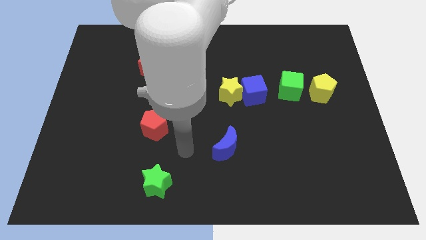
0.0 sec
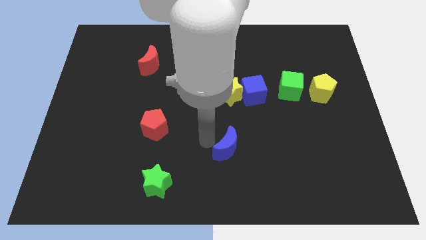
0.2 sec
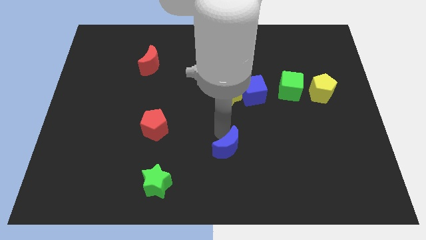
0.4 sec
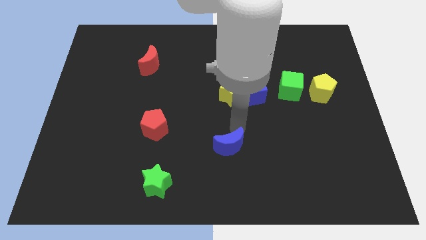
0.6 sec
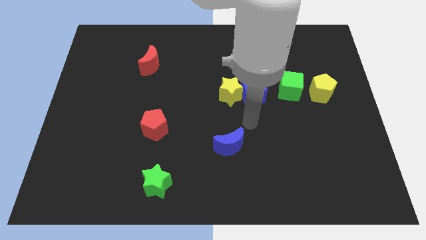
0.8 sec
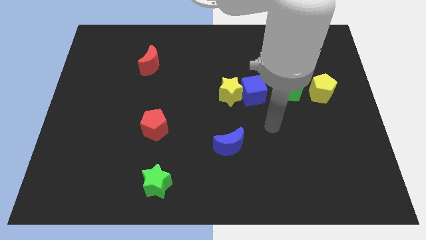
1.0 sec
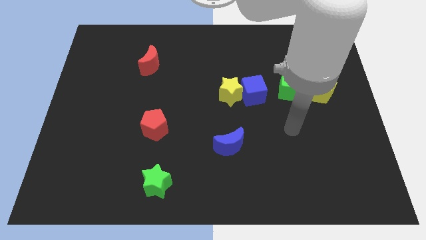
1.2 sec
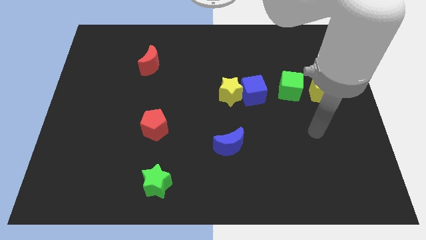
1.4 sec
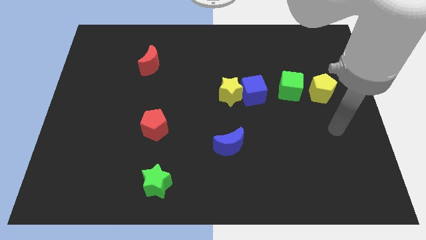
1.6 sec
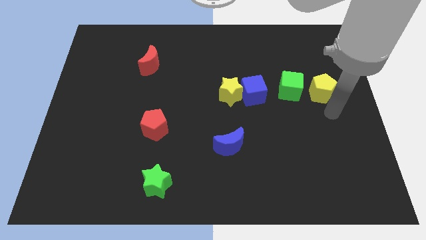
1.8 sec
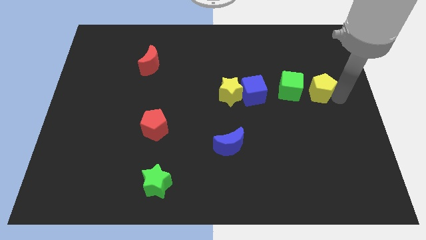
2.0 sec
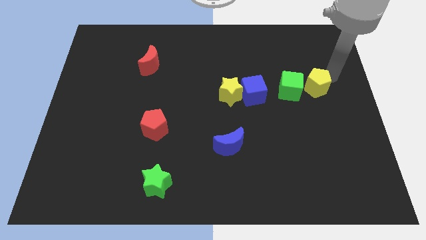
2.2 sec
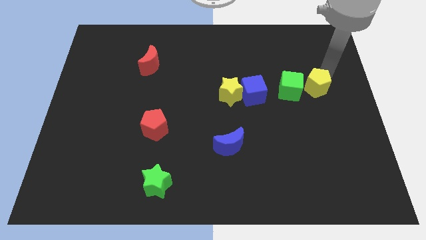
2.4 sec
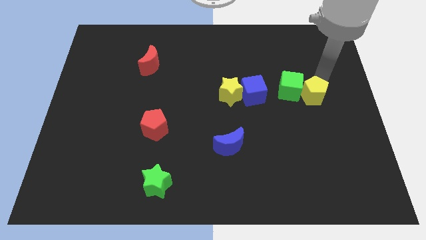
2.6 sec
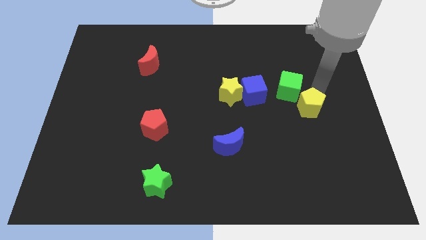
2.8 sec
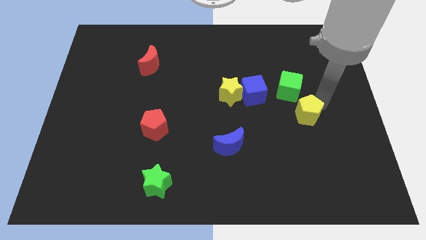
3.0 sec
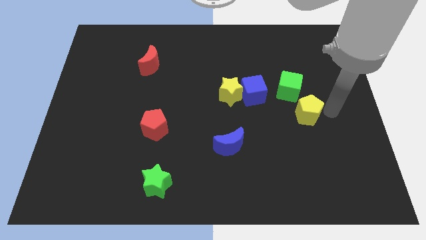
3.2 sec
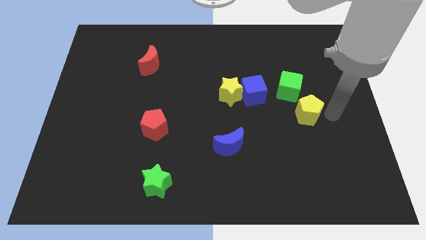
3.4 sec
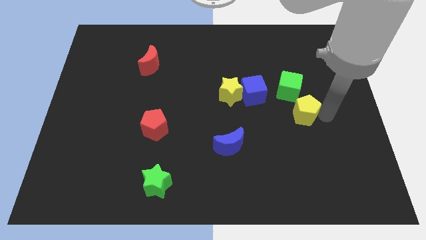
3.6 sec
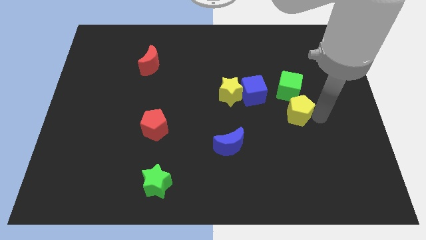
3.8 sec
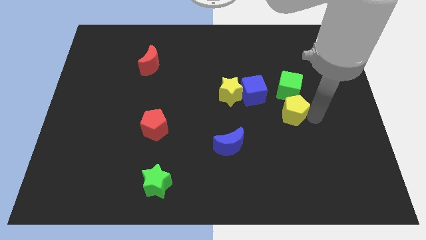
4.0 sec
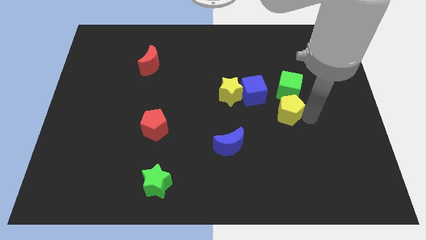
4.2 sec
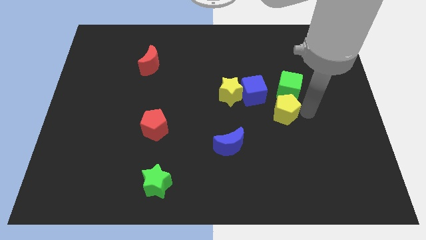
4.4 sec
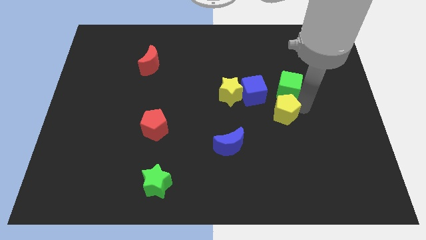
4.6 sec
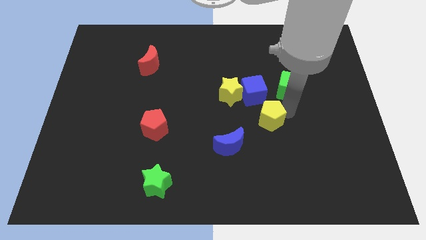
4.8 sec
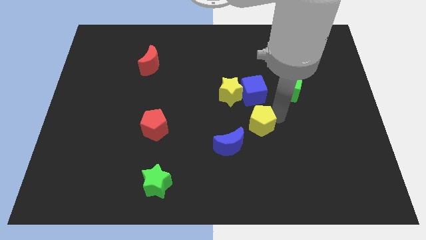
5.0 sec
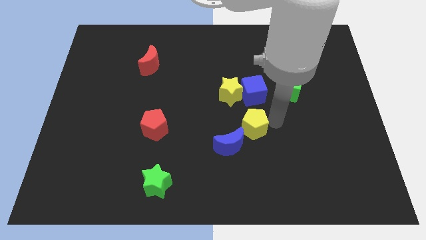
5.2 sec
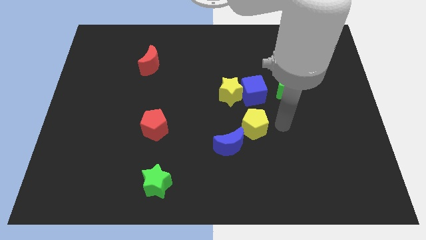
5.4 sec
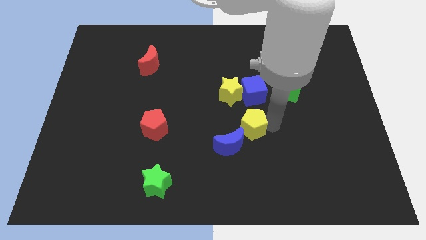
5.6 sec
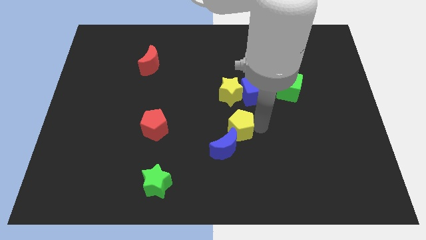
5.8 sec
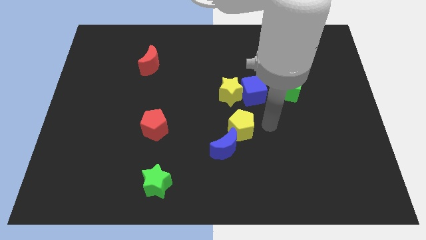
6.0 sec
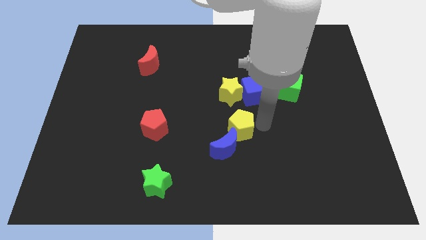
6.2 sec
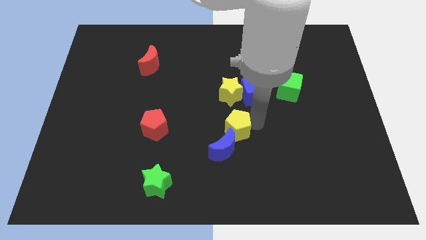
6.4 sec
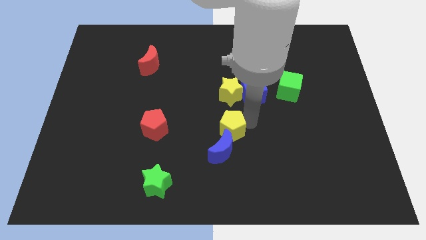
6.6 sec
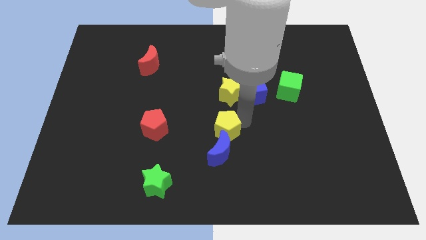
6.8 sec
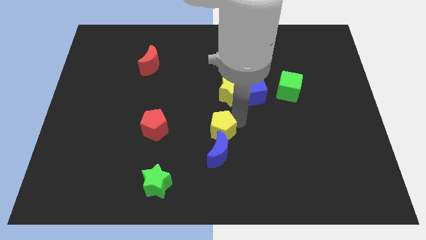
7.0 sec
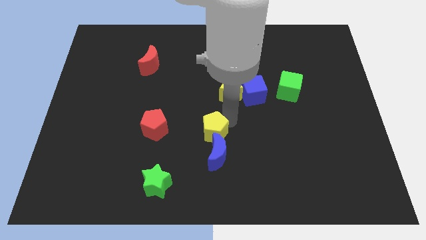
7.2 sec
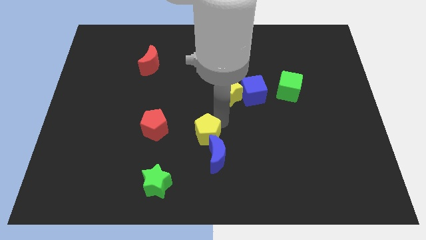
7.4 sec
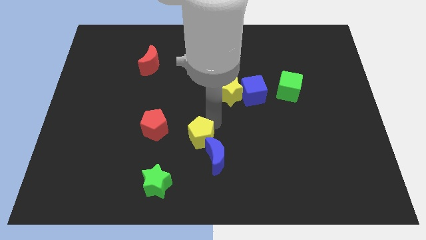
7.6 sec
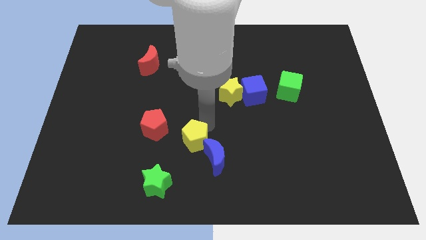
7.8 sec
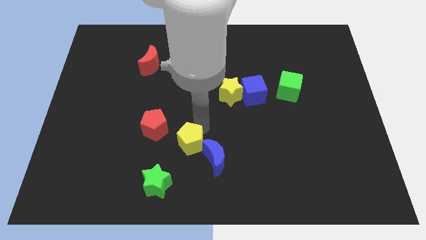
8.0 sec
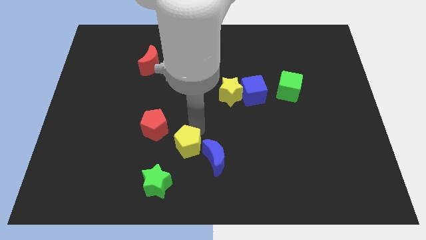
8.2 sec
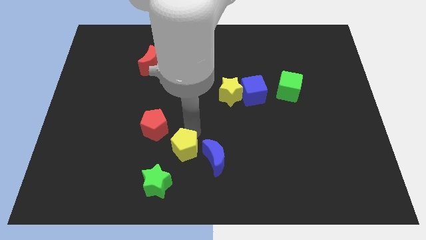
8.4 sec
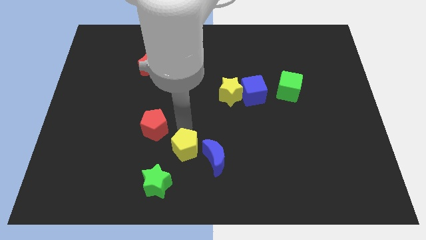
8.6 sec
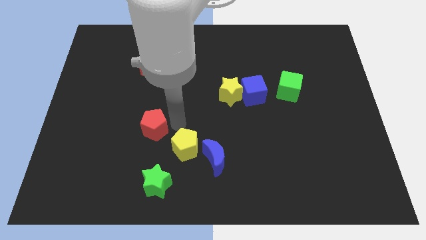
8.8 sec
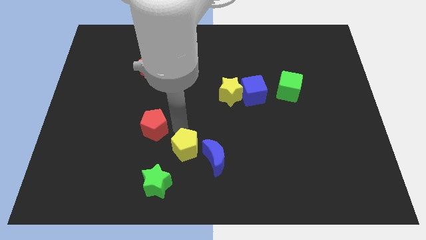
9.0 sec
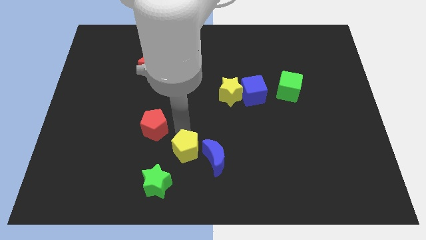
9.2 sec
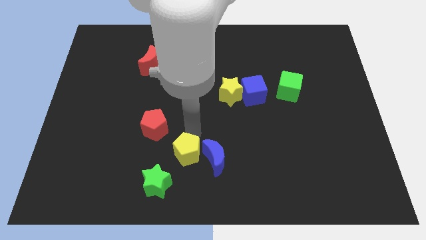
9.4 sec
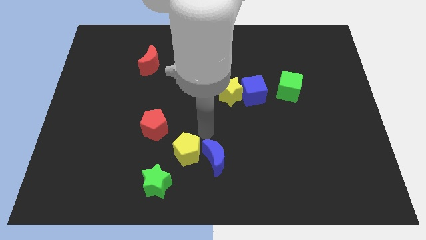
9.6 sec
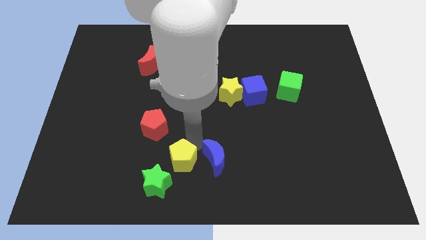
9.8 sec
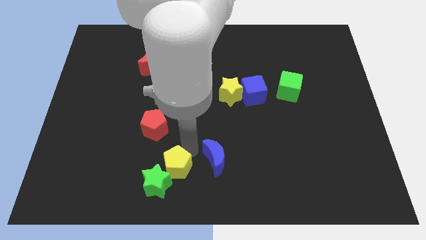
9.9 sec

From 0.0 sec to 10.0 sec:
slide the yellow pentagon towards the green star

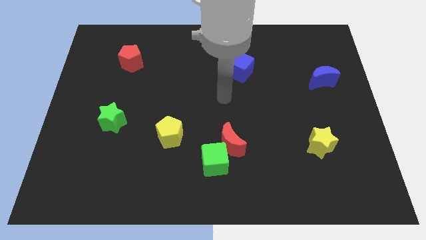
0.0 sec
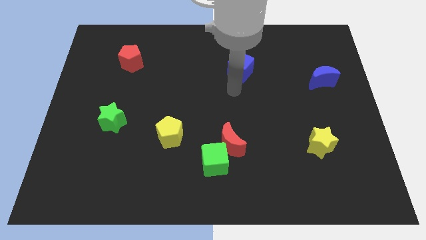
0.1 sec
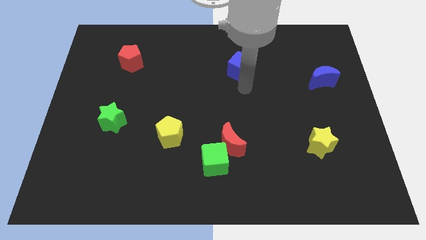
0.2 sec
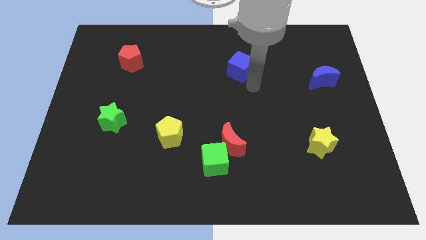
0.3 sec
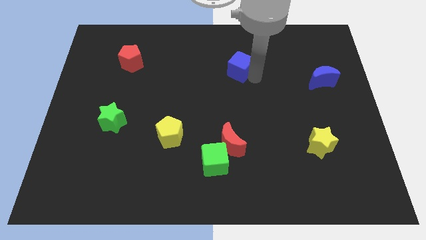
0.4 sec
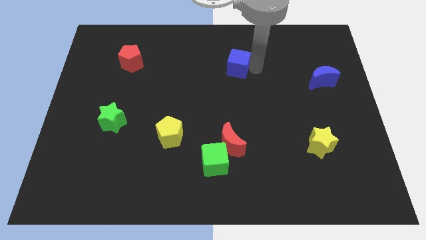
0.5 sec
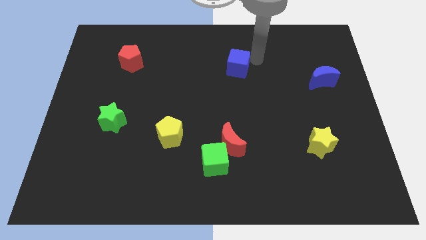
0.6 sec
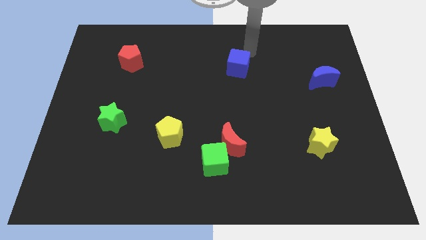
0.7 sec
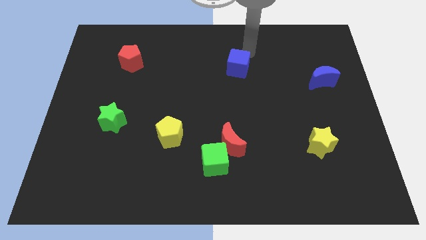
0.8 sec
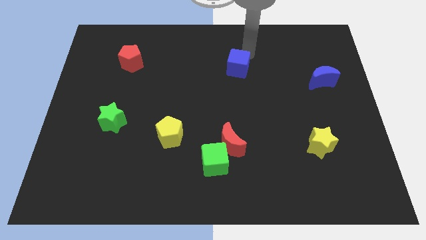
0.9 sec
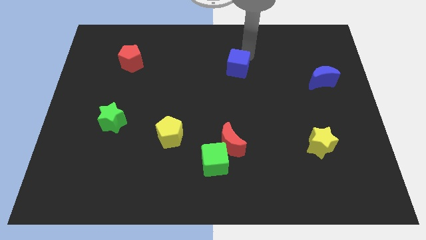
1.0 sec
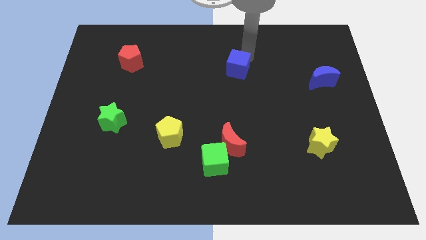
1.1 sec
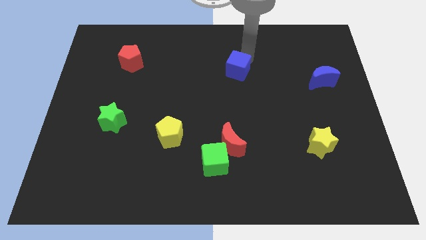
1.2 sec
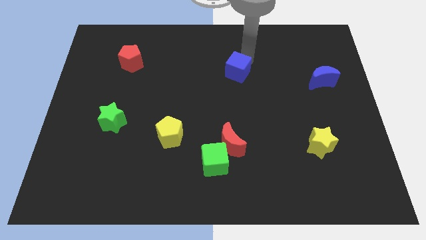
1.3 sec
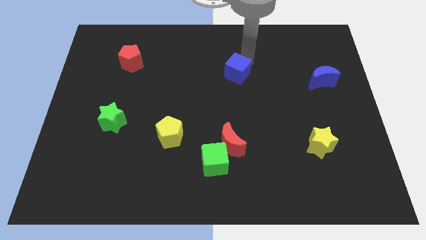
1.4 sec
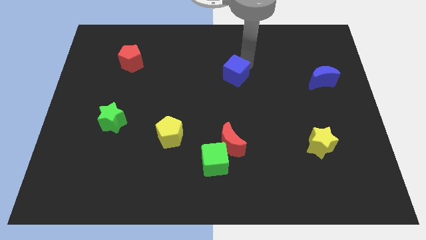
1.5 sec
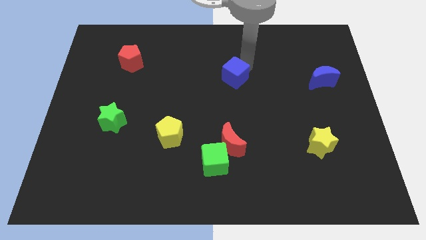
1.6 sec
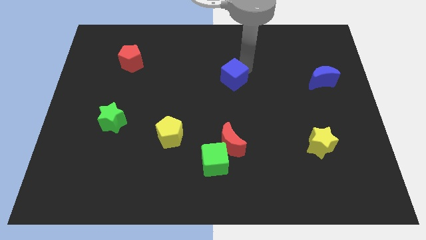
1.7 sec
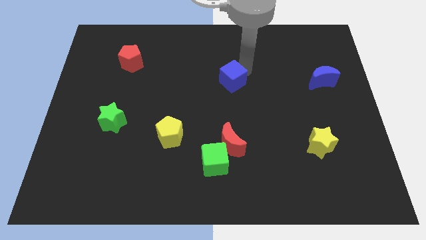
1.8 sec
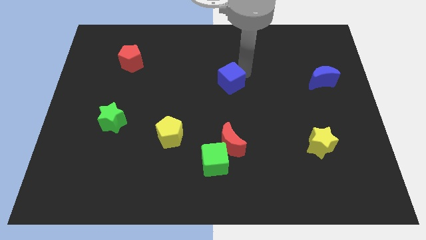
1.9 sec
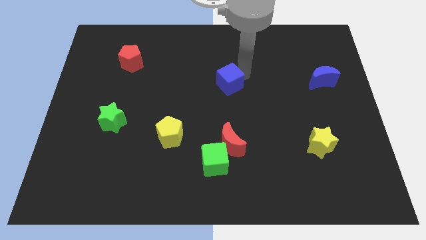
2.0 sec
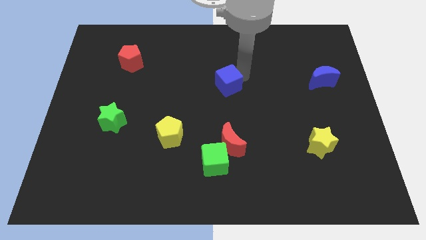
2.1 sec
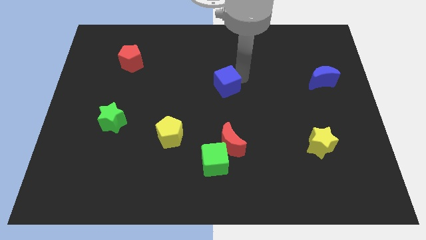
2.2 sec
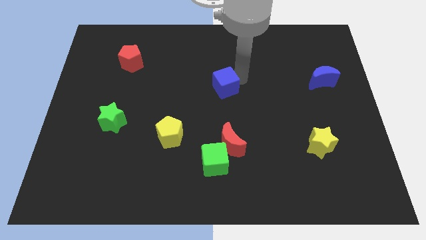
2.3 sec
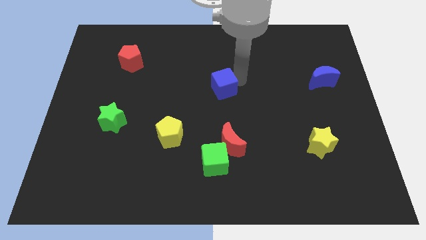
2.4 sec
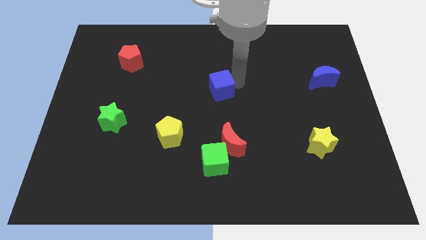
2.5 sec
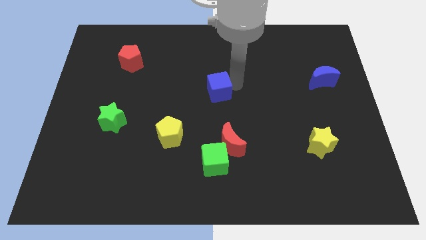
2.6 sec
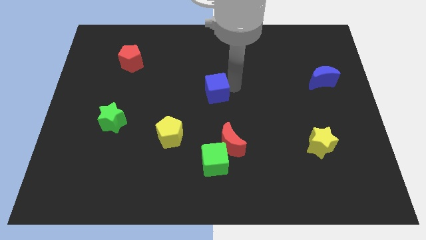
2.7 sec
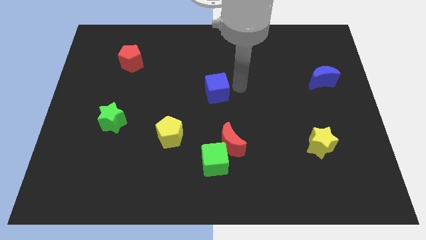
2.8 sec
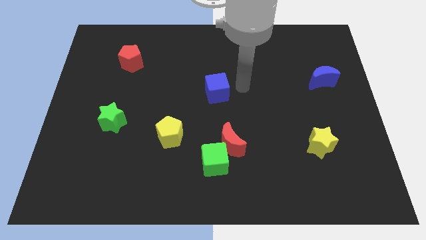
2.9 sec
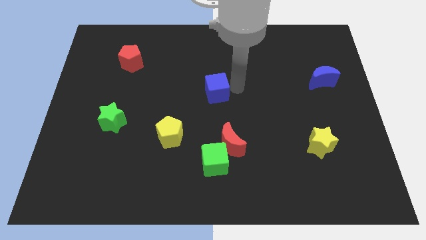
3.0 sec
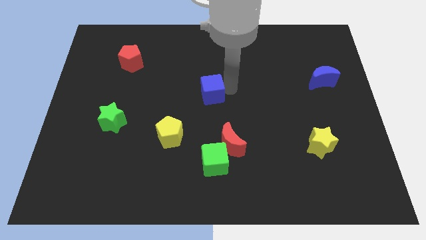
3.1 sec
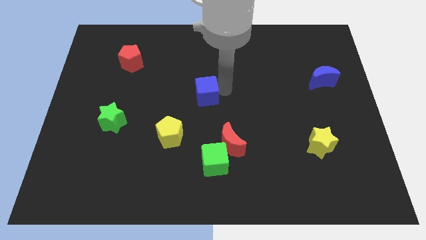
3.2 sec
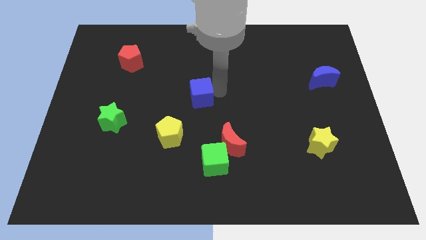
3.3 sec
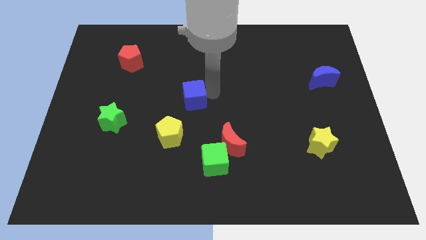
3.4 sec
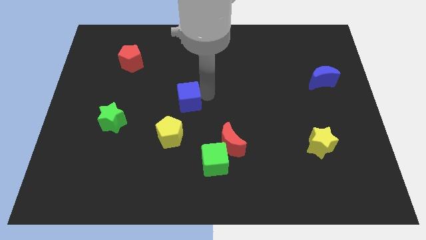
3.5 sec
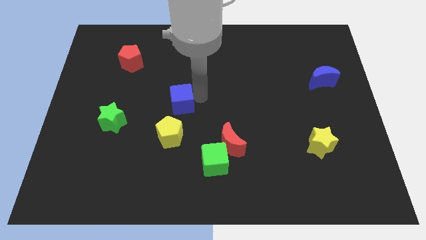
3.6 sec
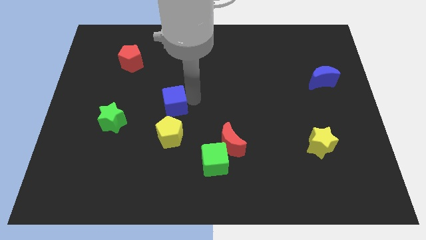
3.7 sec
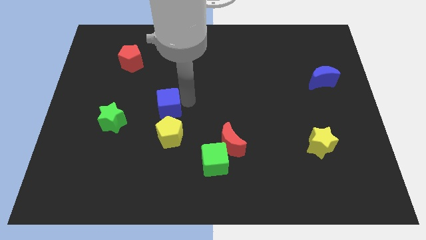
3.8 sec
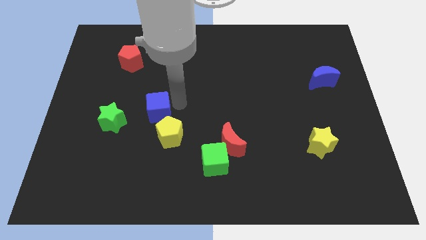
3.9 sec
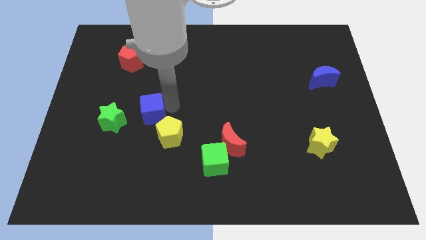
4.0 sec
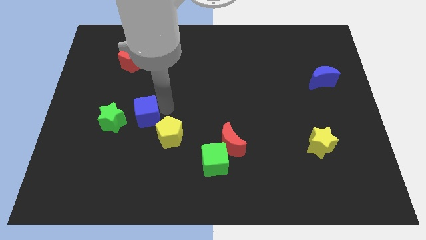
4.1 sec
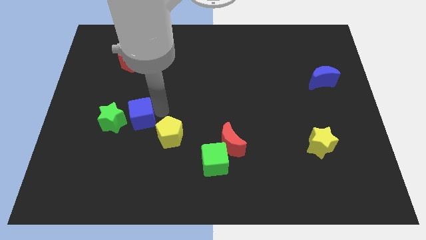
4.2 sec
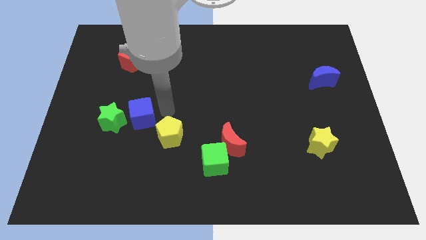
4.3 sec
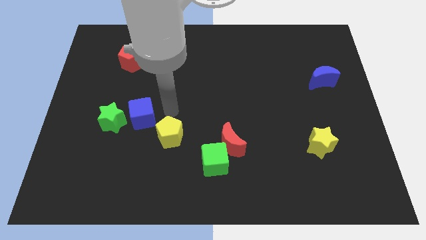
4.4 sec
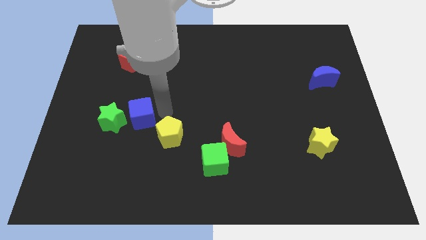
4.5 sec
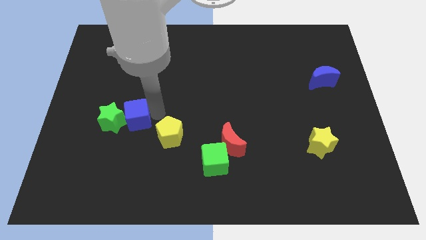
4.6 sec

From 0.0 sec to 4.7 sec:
move the blue cube towards the green star
